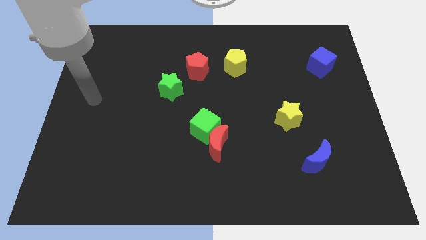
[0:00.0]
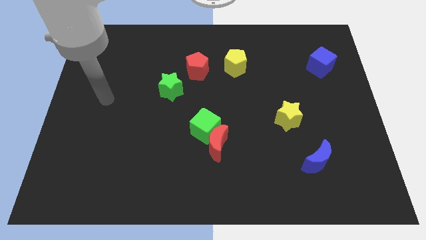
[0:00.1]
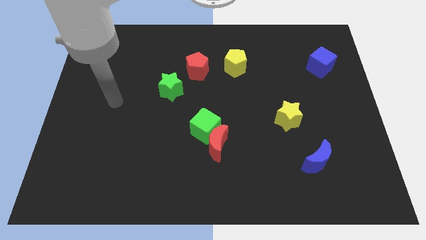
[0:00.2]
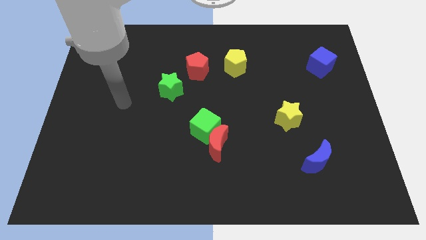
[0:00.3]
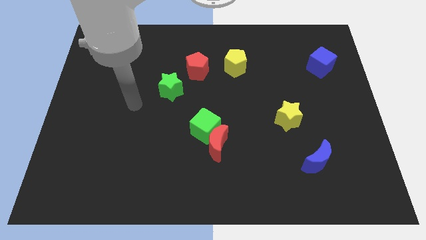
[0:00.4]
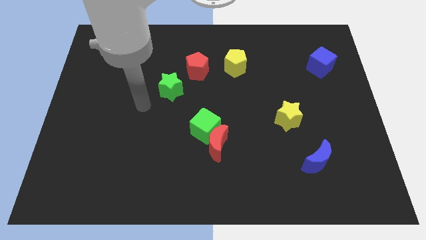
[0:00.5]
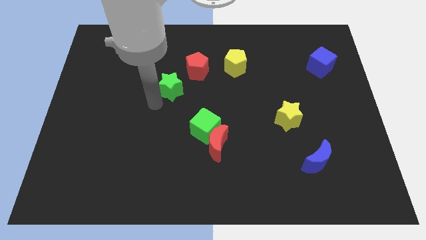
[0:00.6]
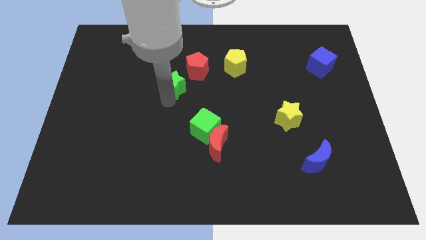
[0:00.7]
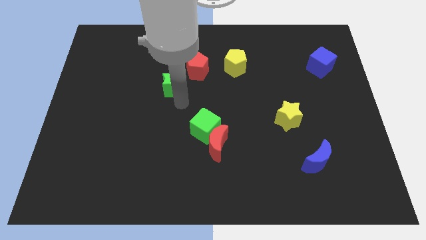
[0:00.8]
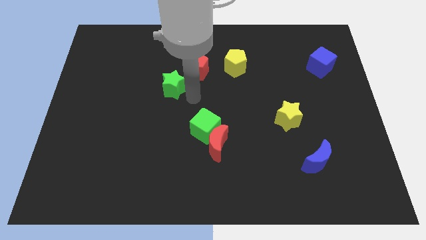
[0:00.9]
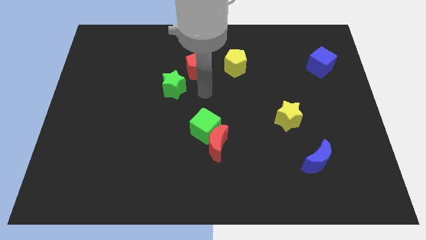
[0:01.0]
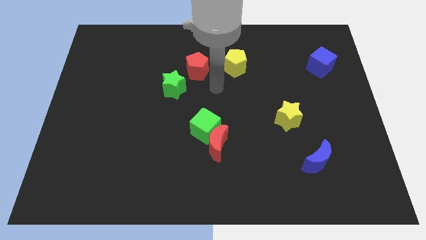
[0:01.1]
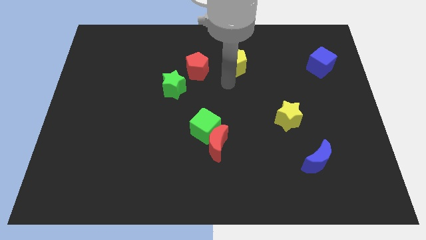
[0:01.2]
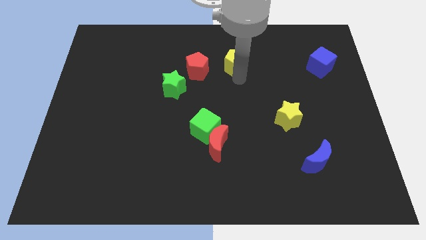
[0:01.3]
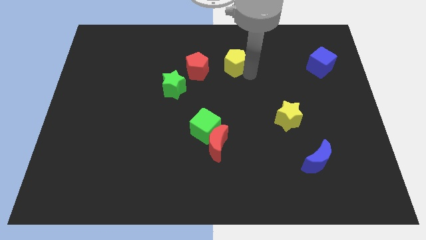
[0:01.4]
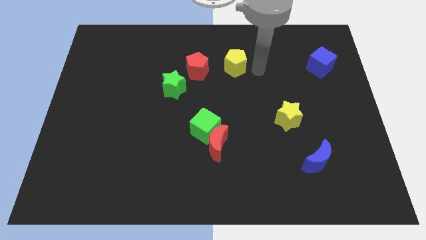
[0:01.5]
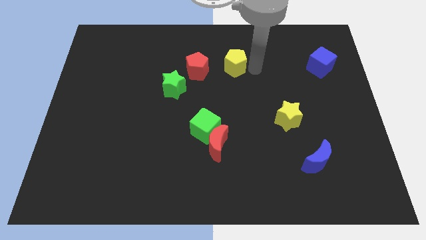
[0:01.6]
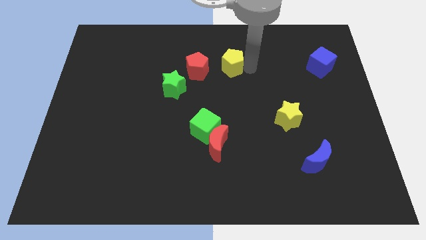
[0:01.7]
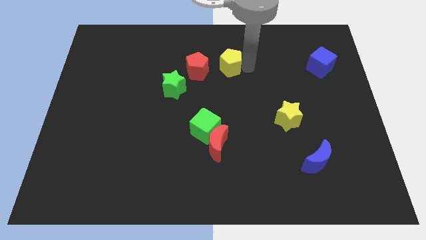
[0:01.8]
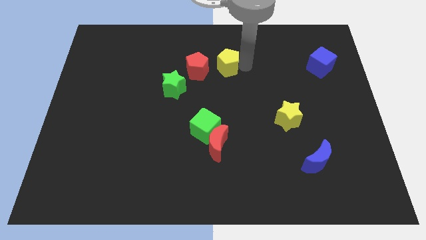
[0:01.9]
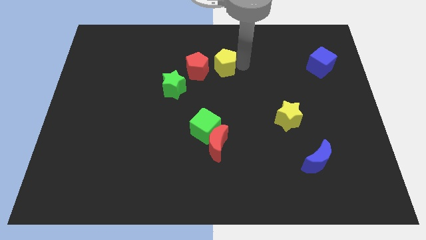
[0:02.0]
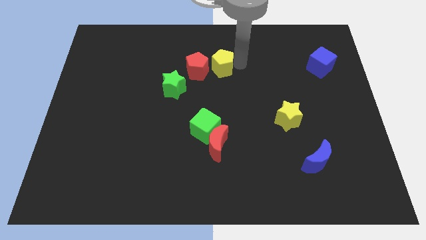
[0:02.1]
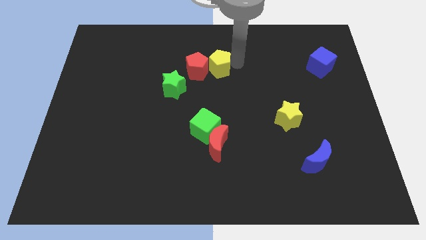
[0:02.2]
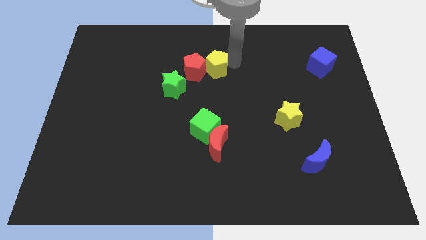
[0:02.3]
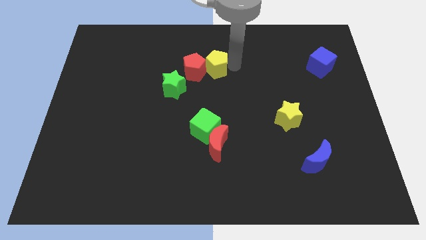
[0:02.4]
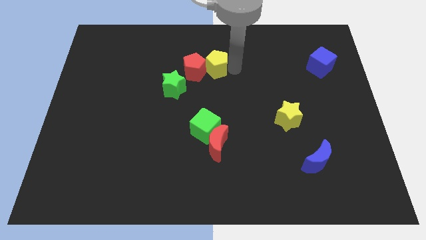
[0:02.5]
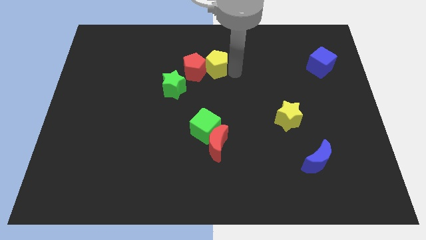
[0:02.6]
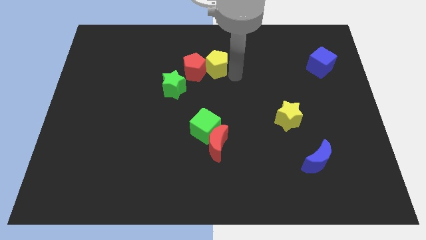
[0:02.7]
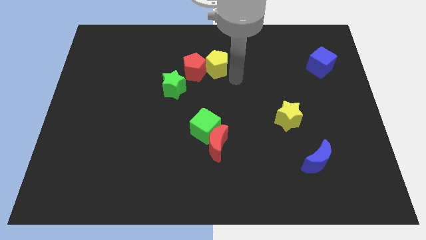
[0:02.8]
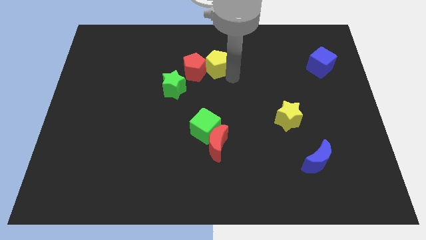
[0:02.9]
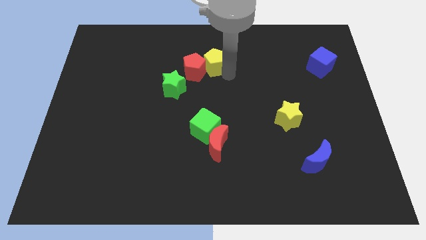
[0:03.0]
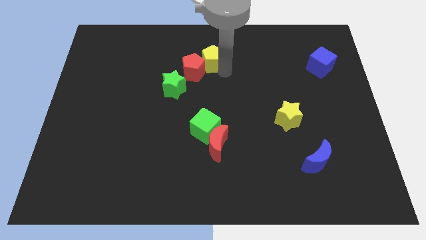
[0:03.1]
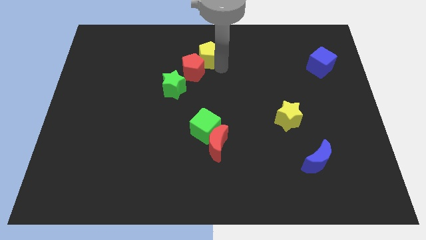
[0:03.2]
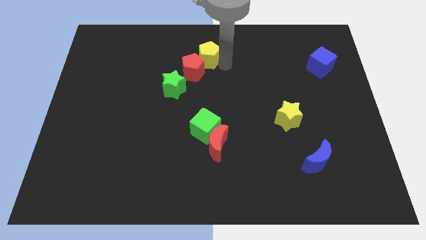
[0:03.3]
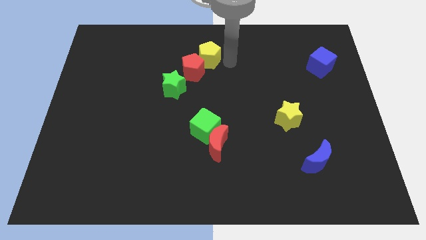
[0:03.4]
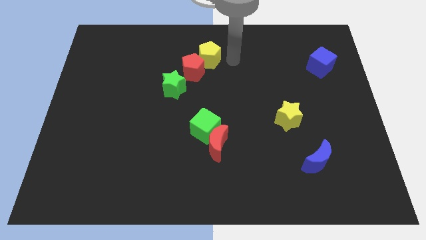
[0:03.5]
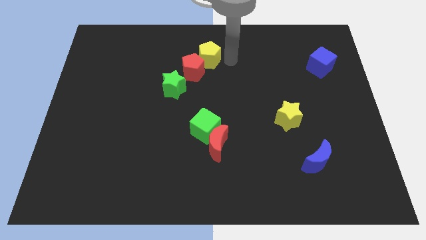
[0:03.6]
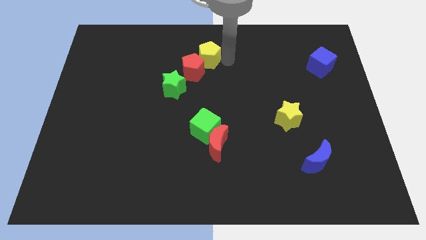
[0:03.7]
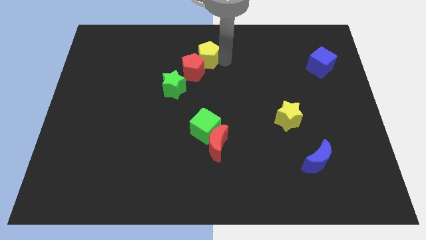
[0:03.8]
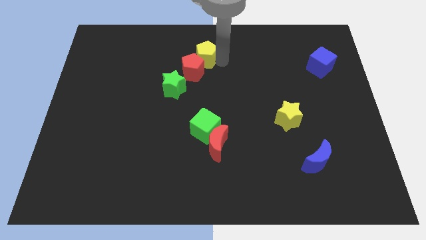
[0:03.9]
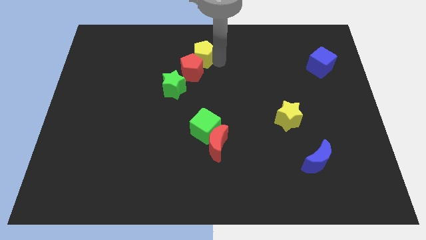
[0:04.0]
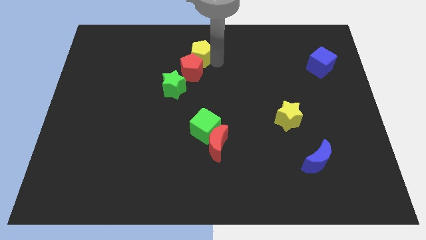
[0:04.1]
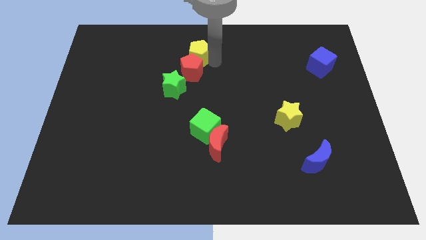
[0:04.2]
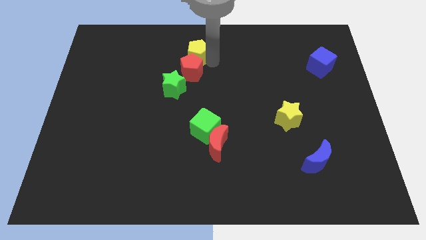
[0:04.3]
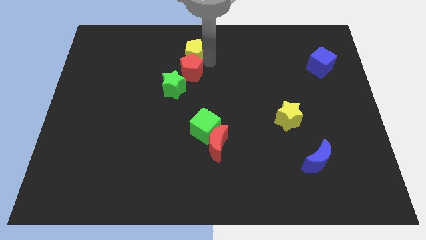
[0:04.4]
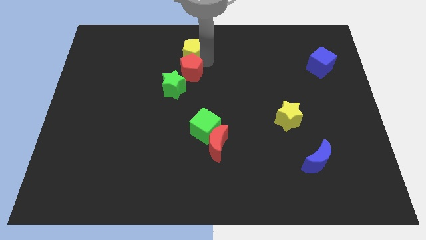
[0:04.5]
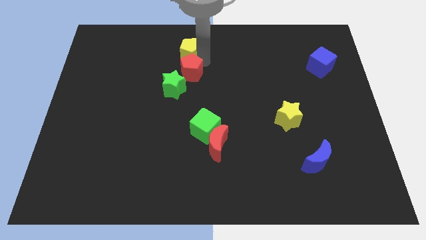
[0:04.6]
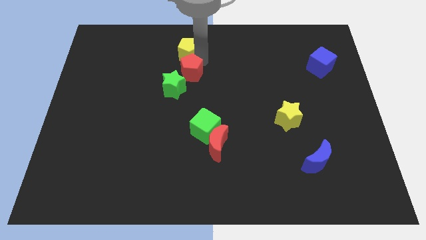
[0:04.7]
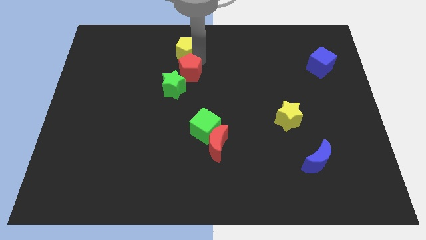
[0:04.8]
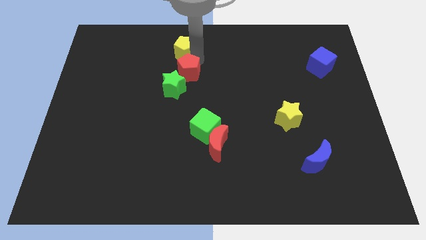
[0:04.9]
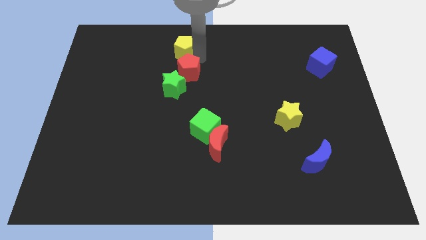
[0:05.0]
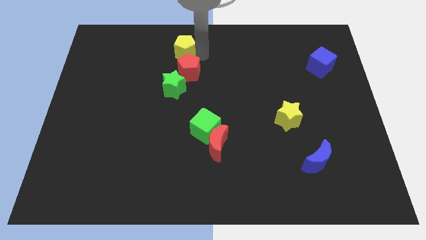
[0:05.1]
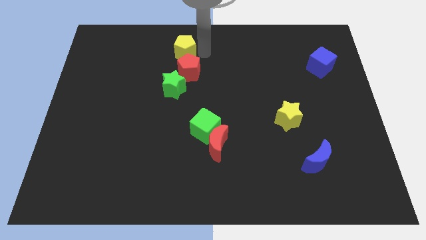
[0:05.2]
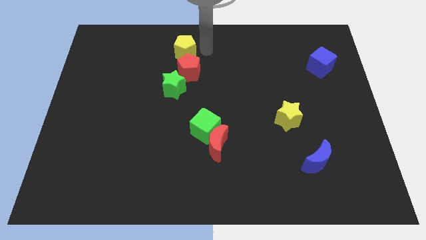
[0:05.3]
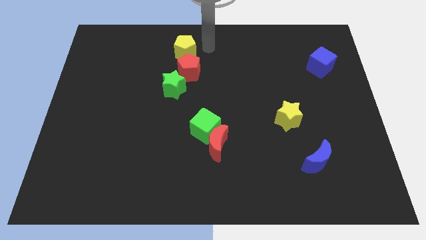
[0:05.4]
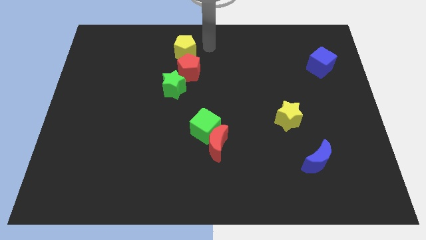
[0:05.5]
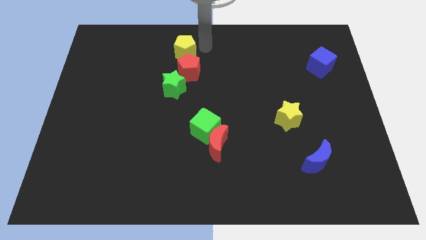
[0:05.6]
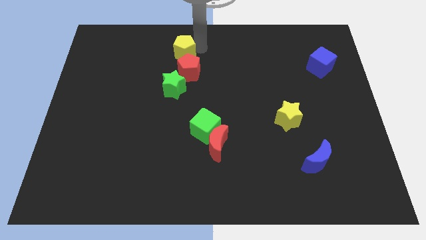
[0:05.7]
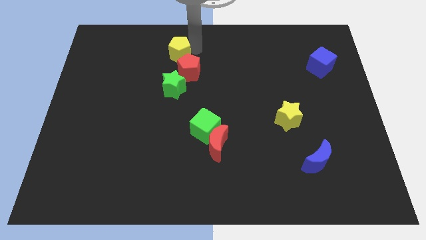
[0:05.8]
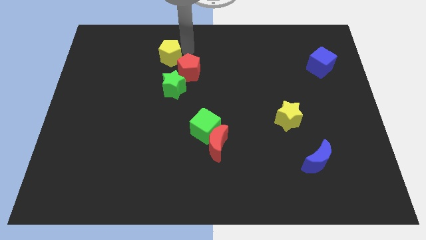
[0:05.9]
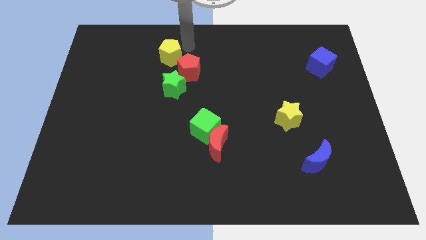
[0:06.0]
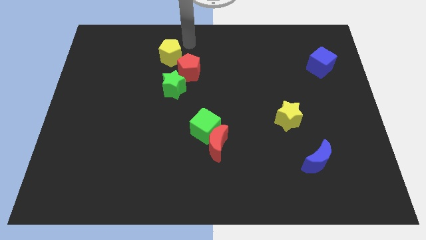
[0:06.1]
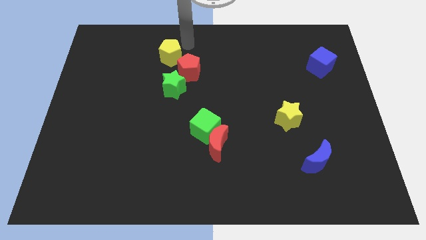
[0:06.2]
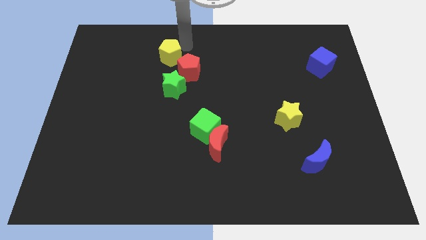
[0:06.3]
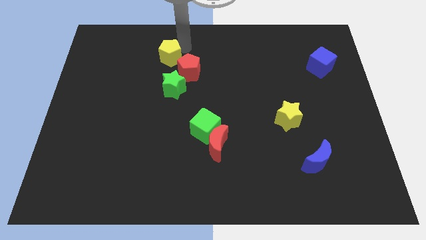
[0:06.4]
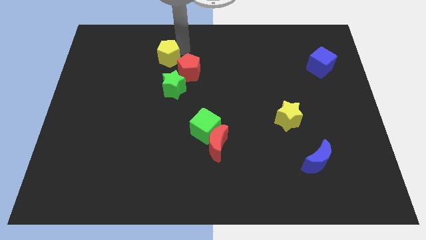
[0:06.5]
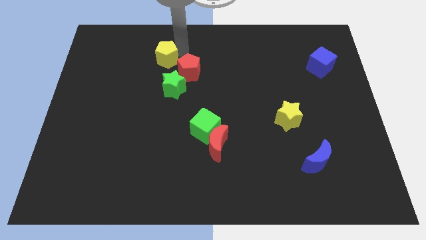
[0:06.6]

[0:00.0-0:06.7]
move the yellow pentagon to the left side of the red pentagon
